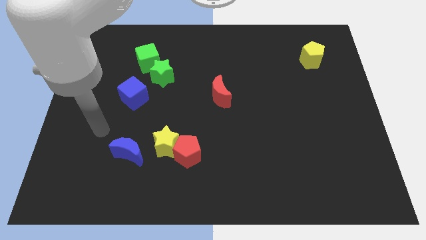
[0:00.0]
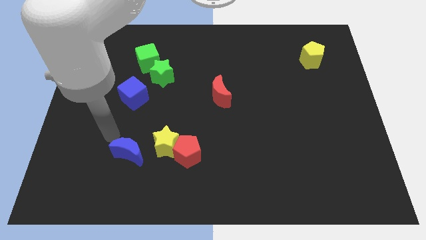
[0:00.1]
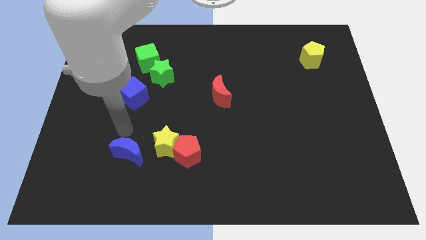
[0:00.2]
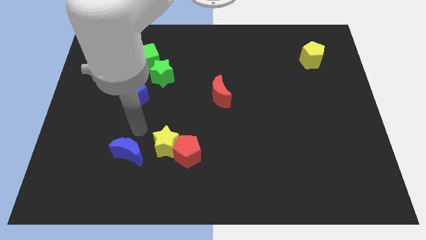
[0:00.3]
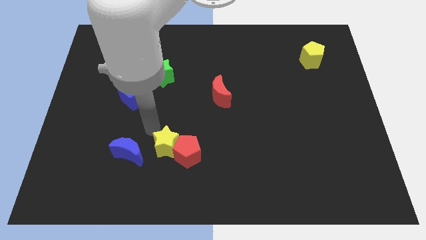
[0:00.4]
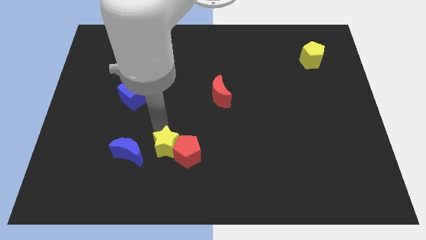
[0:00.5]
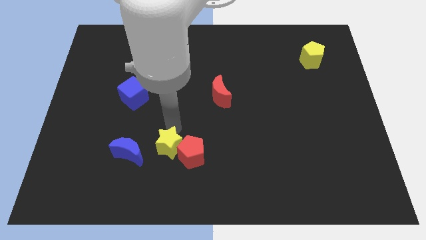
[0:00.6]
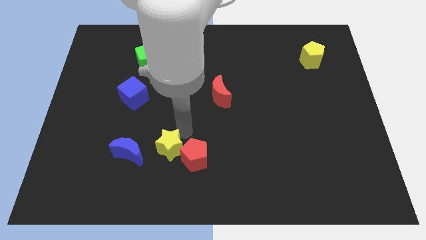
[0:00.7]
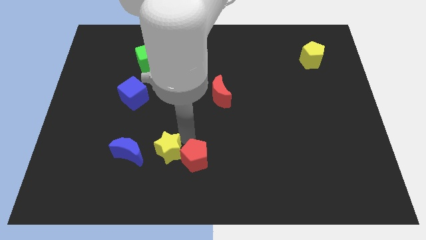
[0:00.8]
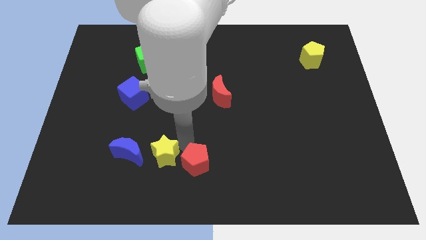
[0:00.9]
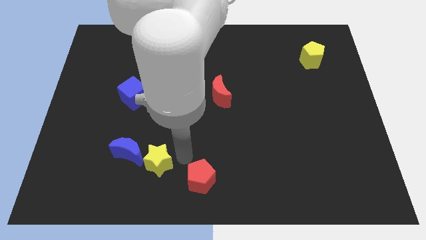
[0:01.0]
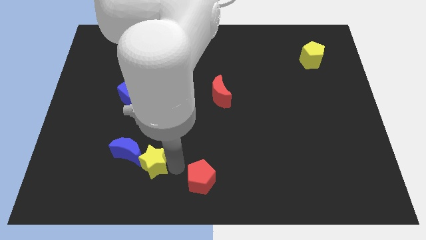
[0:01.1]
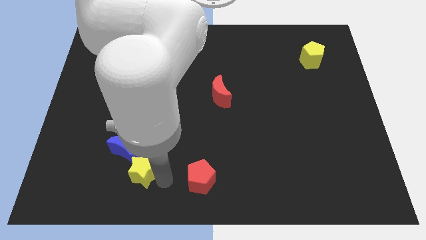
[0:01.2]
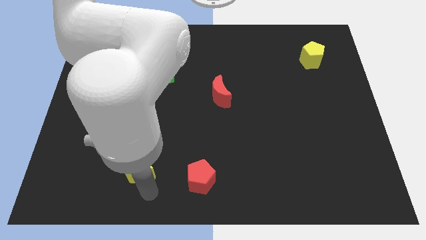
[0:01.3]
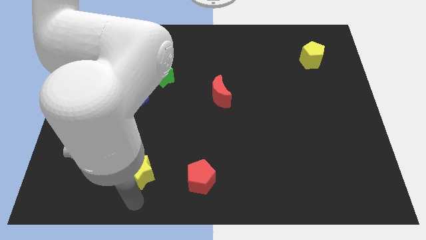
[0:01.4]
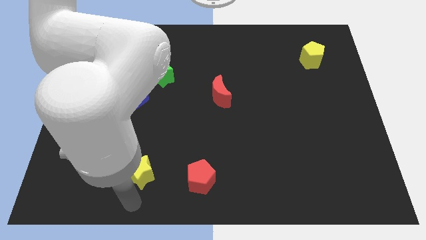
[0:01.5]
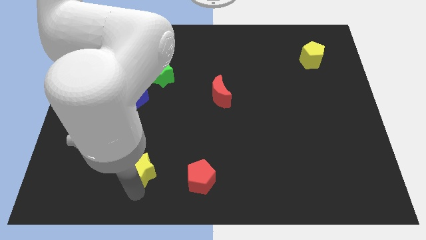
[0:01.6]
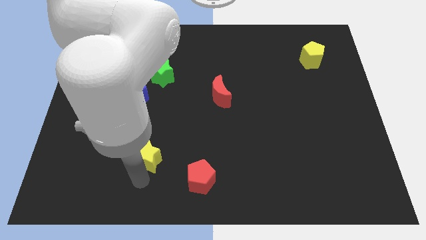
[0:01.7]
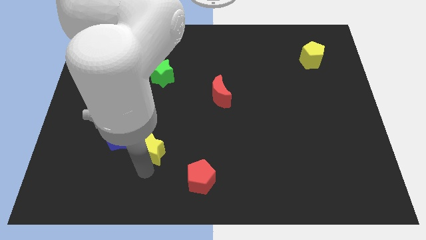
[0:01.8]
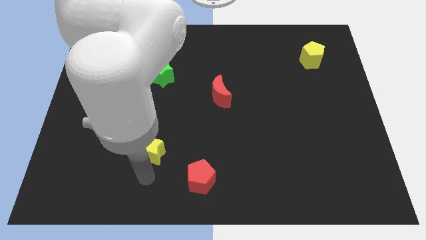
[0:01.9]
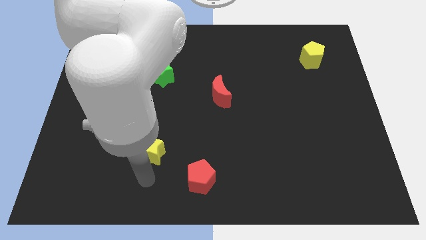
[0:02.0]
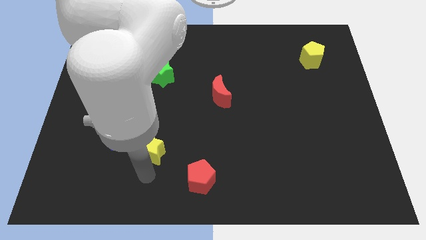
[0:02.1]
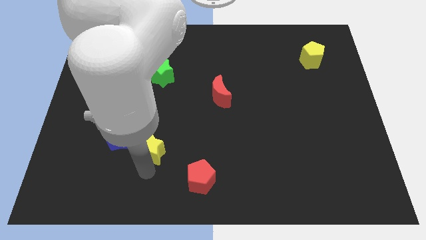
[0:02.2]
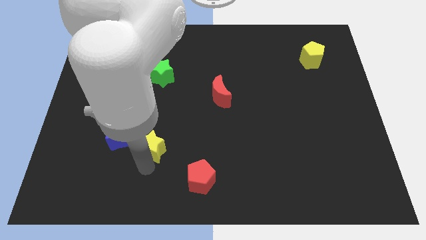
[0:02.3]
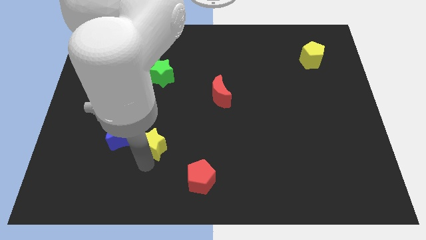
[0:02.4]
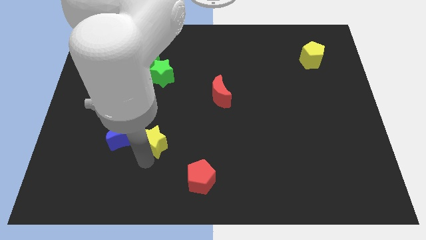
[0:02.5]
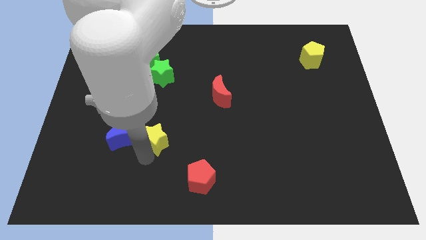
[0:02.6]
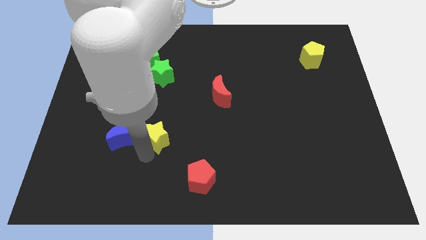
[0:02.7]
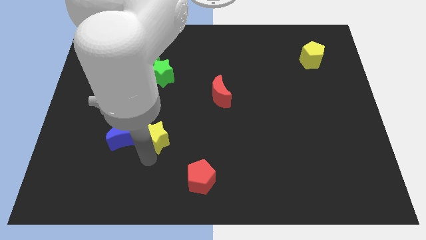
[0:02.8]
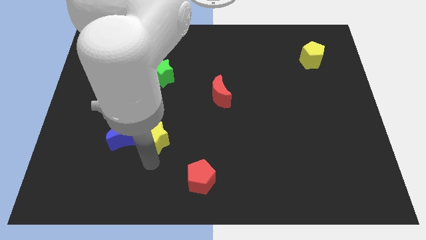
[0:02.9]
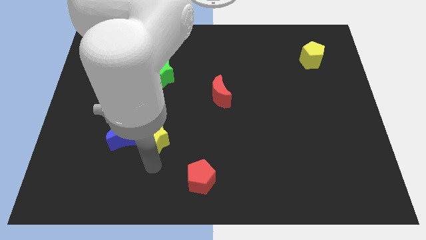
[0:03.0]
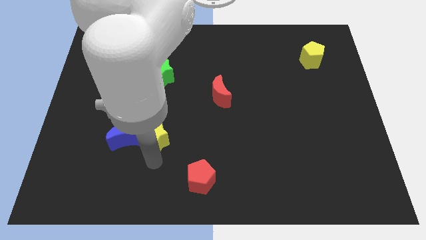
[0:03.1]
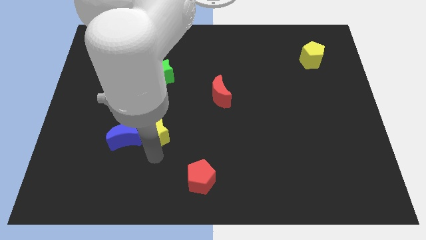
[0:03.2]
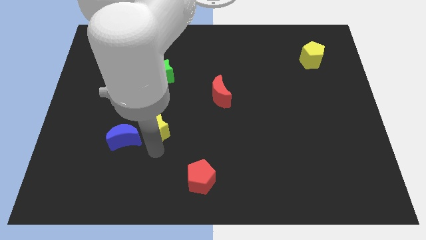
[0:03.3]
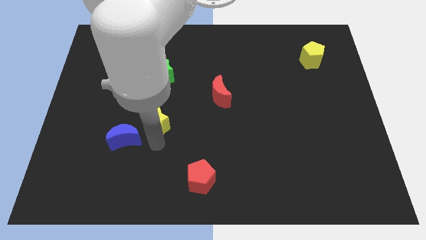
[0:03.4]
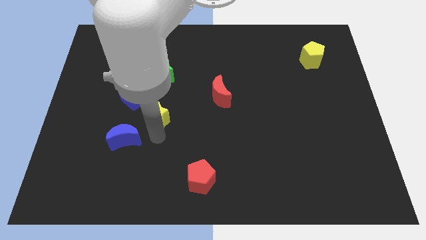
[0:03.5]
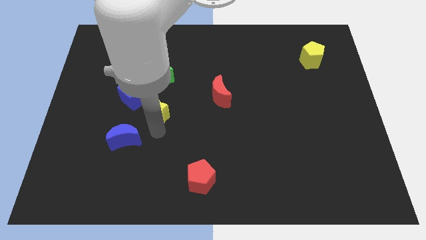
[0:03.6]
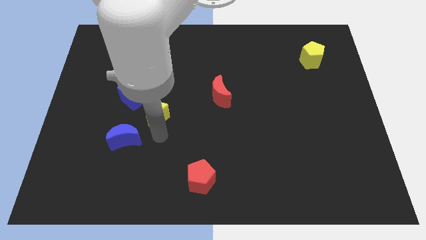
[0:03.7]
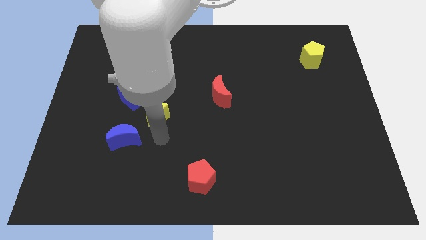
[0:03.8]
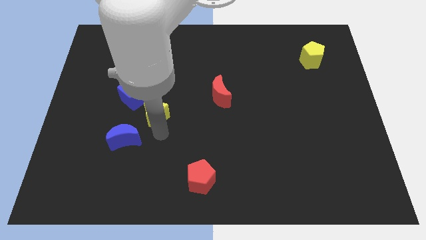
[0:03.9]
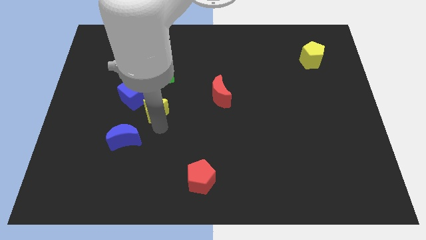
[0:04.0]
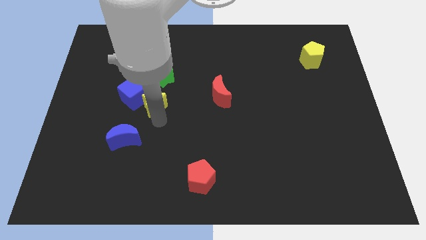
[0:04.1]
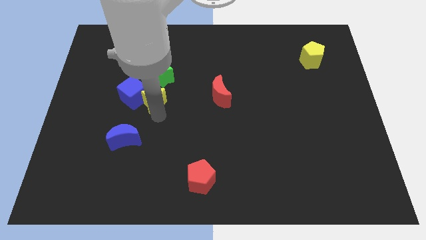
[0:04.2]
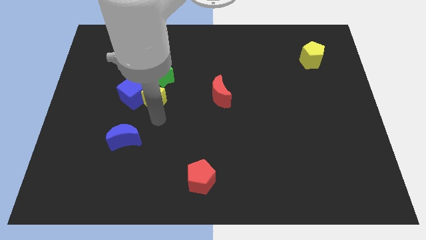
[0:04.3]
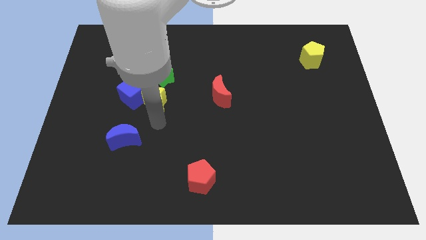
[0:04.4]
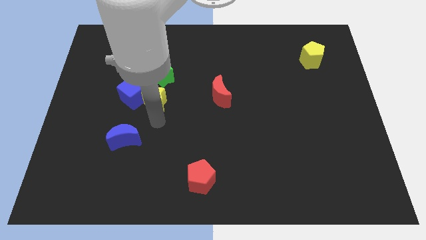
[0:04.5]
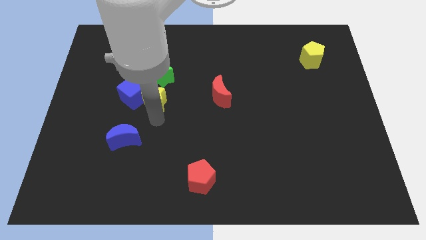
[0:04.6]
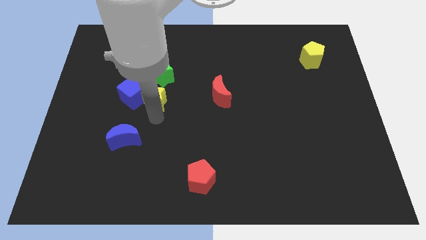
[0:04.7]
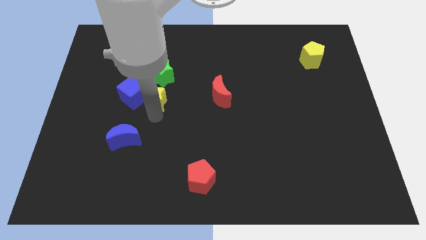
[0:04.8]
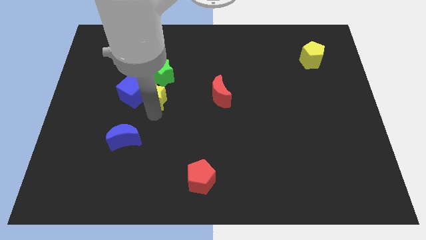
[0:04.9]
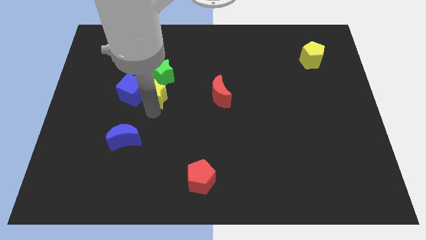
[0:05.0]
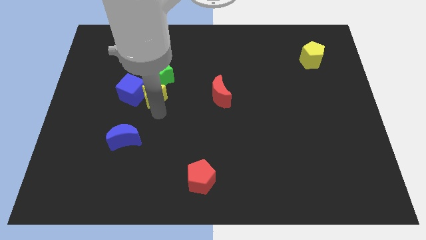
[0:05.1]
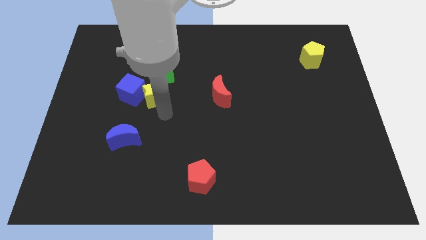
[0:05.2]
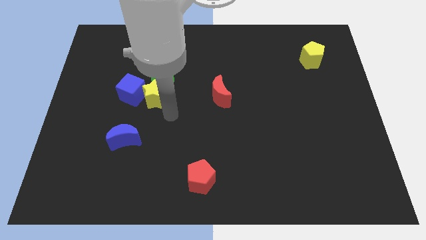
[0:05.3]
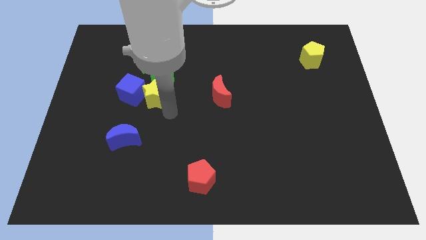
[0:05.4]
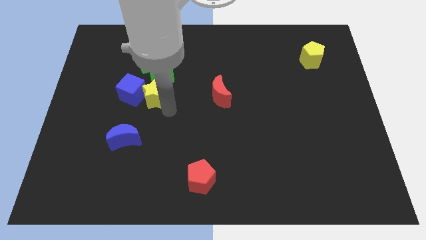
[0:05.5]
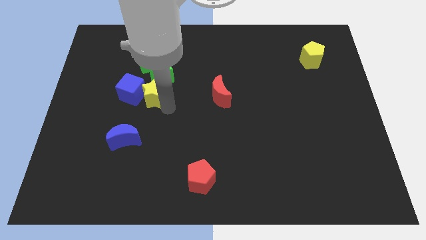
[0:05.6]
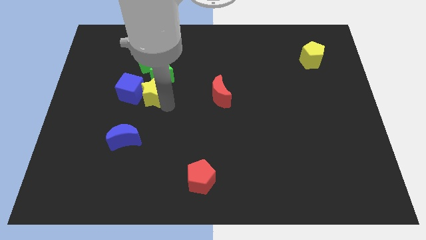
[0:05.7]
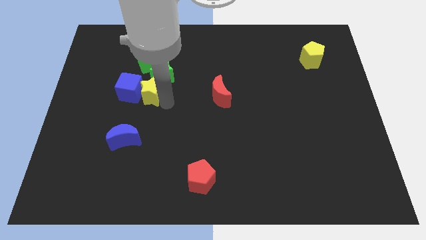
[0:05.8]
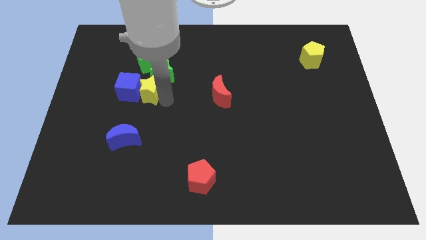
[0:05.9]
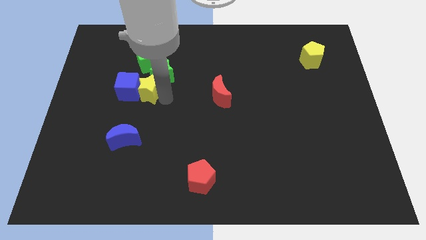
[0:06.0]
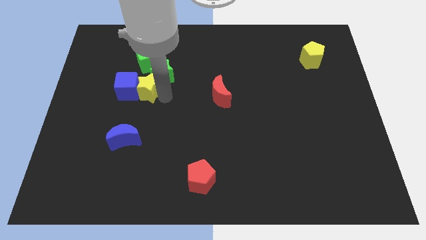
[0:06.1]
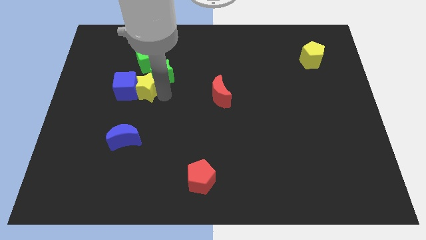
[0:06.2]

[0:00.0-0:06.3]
put the yellow star to the left side of the green star
